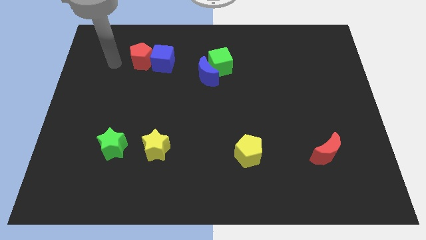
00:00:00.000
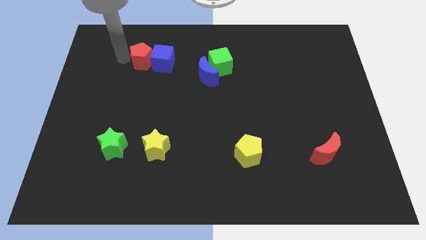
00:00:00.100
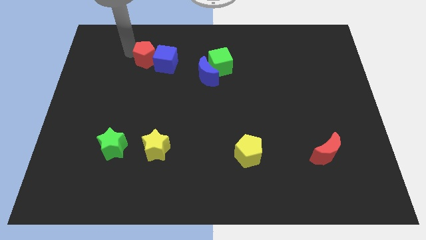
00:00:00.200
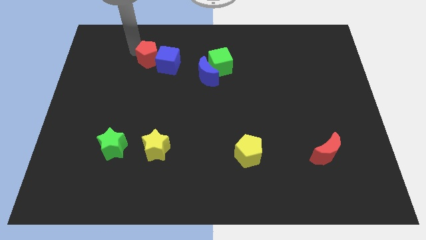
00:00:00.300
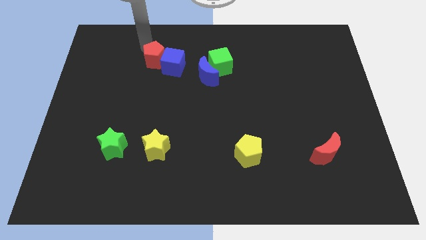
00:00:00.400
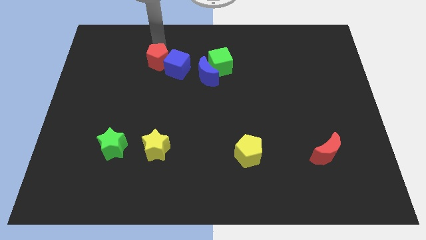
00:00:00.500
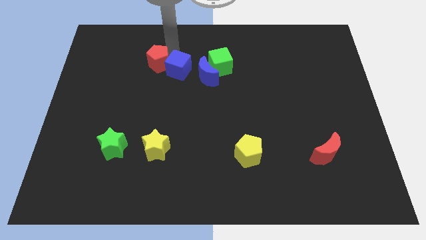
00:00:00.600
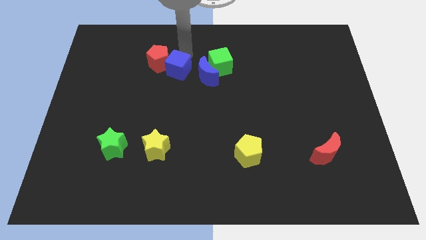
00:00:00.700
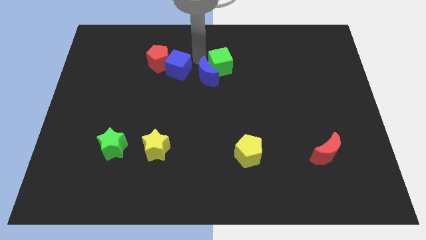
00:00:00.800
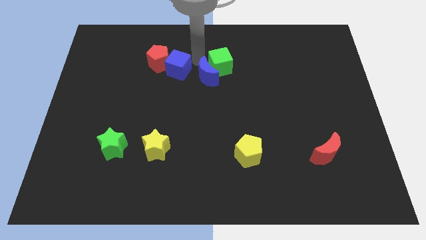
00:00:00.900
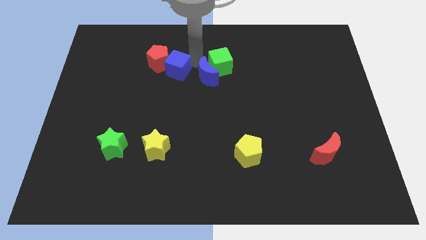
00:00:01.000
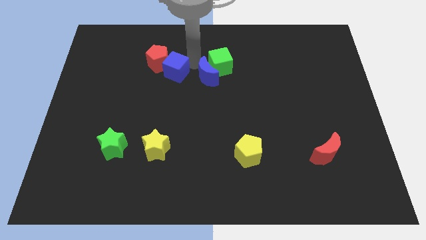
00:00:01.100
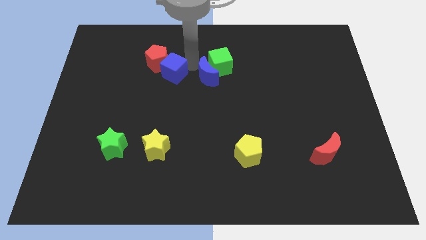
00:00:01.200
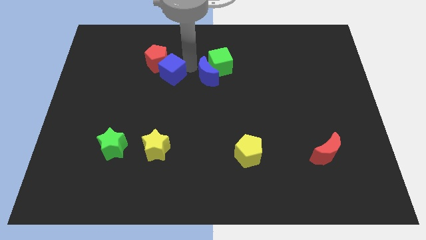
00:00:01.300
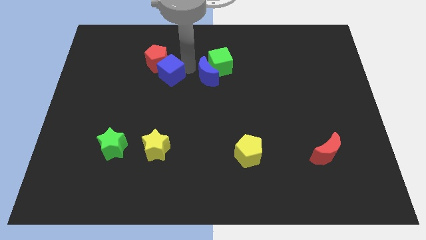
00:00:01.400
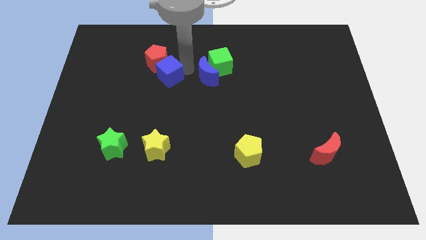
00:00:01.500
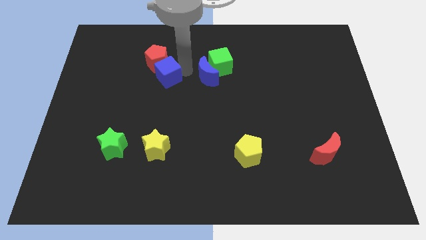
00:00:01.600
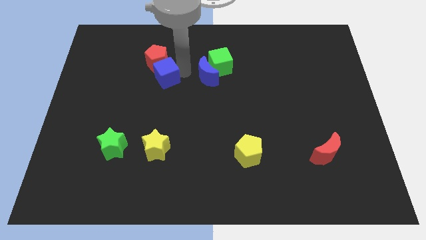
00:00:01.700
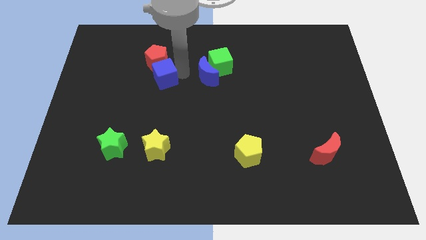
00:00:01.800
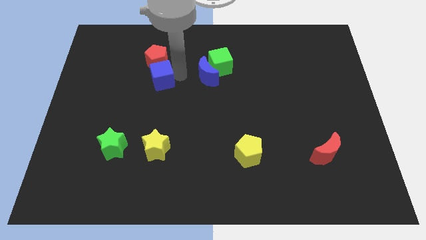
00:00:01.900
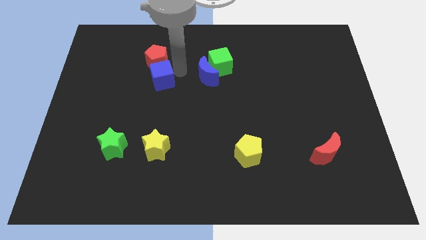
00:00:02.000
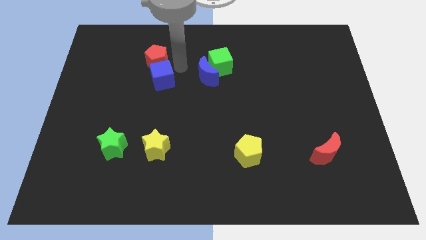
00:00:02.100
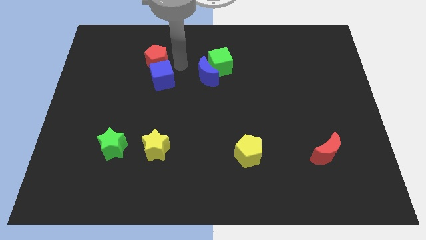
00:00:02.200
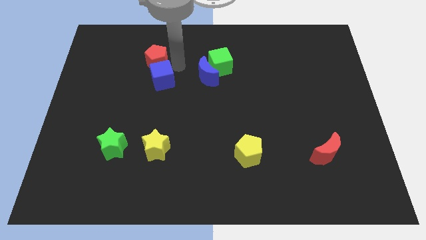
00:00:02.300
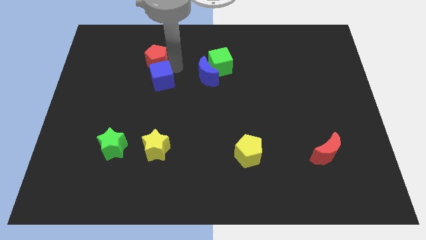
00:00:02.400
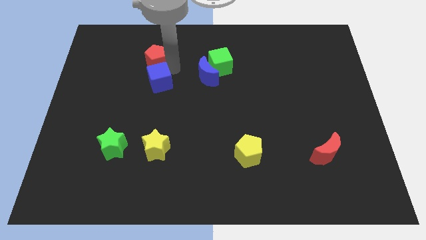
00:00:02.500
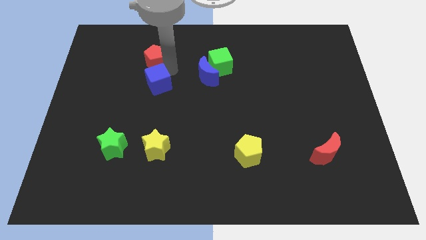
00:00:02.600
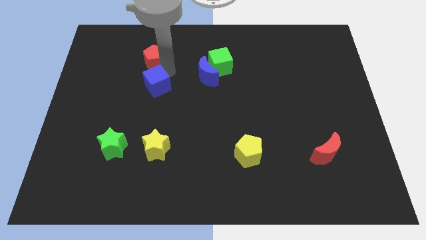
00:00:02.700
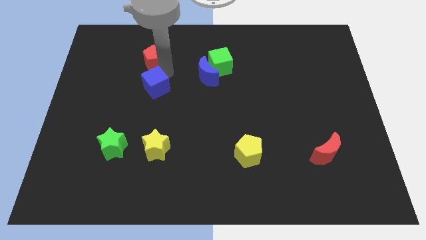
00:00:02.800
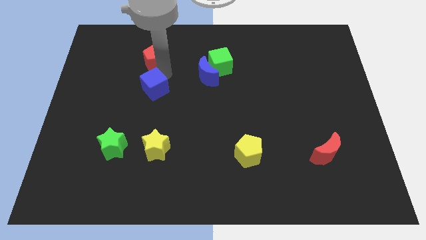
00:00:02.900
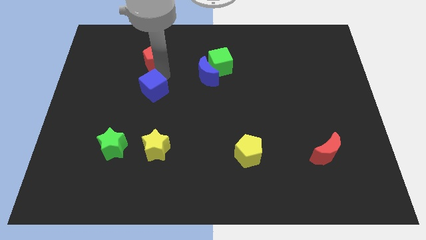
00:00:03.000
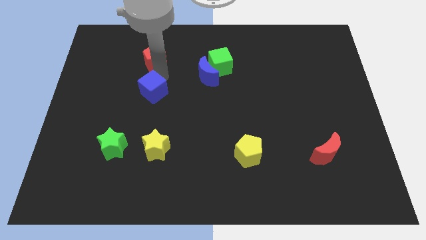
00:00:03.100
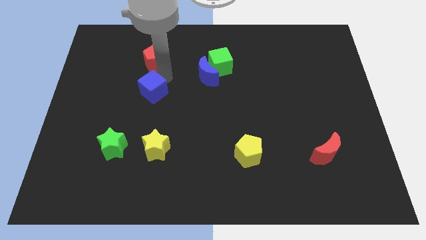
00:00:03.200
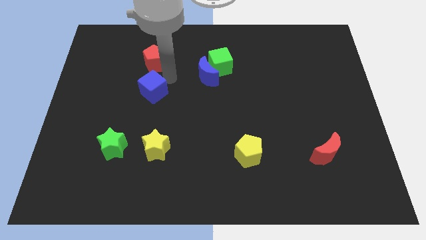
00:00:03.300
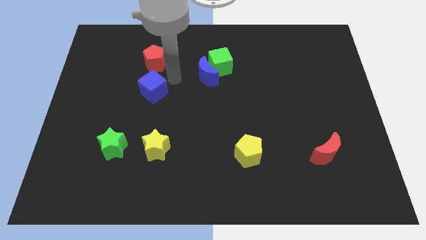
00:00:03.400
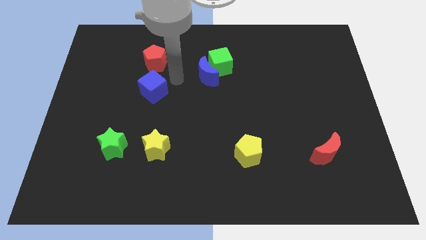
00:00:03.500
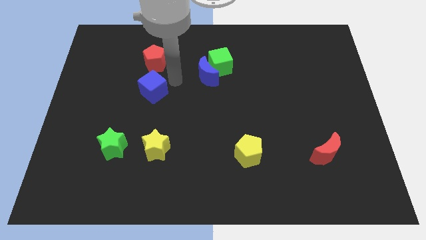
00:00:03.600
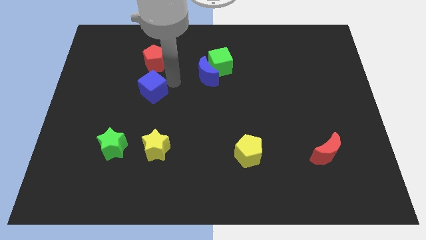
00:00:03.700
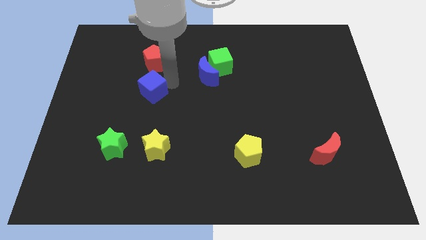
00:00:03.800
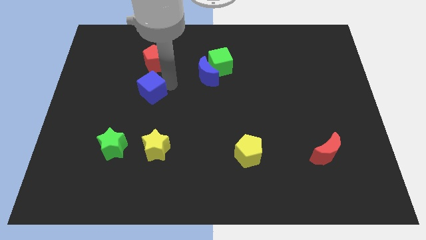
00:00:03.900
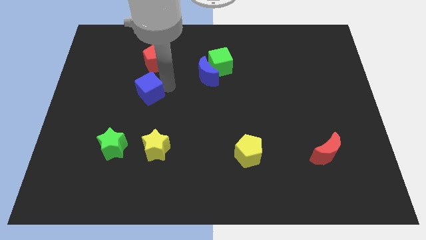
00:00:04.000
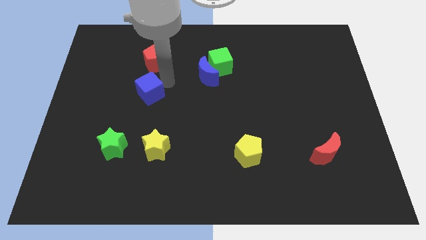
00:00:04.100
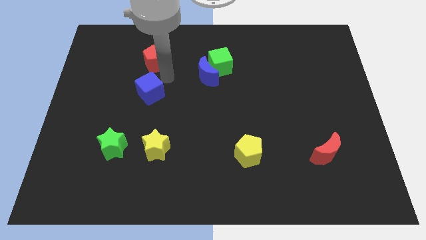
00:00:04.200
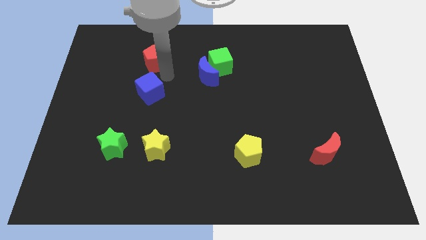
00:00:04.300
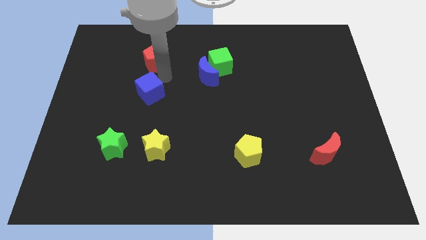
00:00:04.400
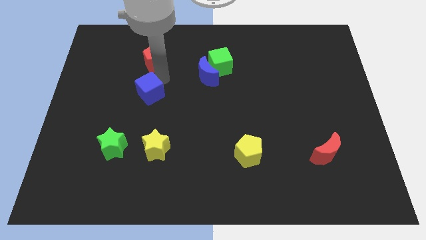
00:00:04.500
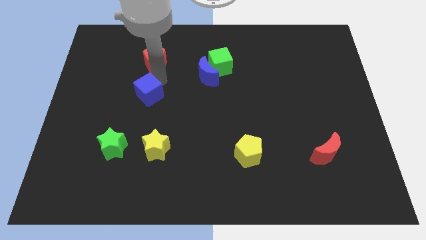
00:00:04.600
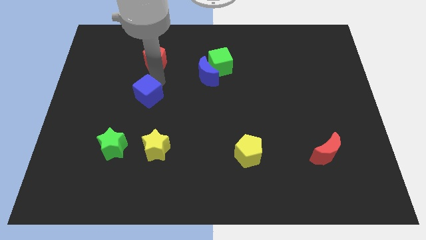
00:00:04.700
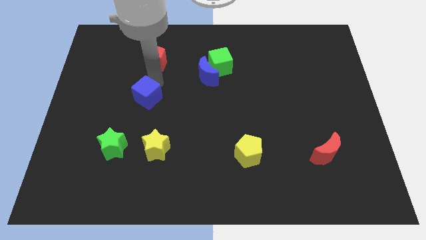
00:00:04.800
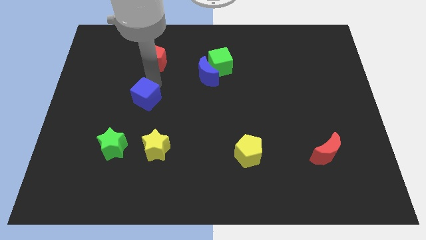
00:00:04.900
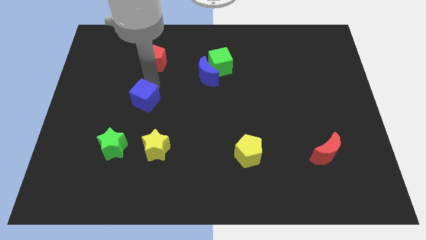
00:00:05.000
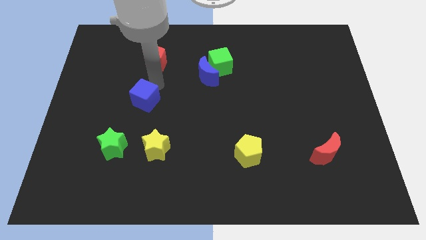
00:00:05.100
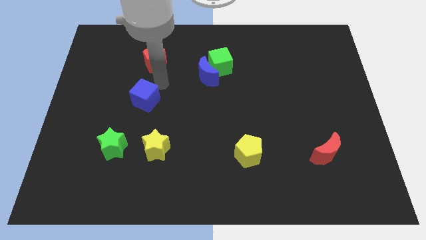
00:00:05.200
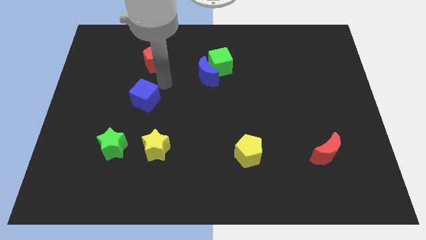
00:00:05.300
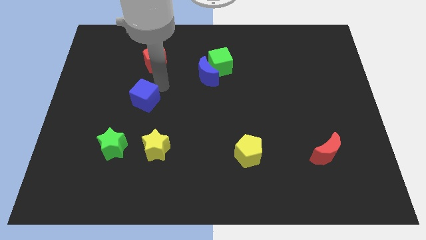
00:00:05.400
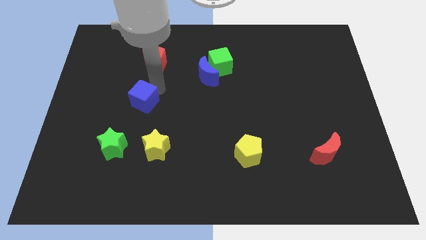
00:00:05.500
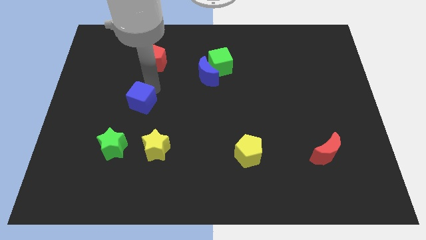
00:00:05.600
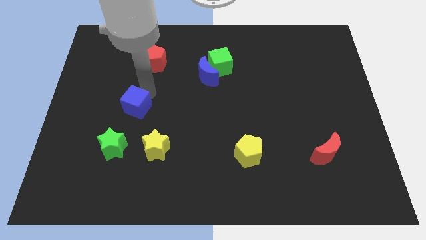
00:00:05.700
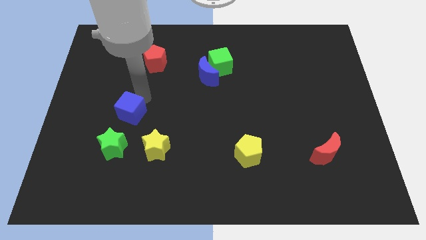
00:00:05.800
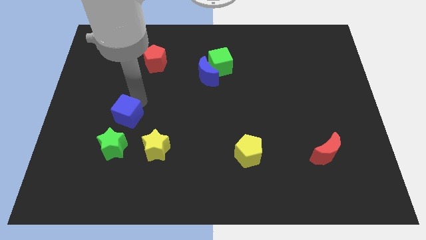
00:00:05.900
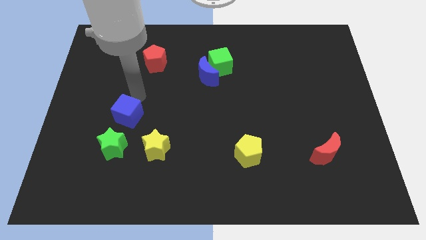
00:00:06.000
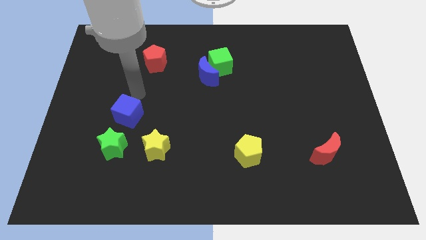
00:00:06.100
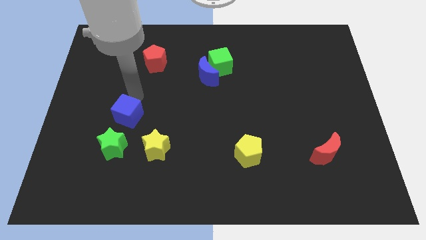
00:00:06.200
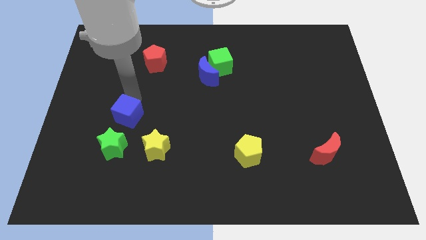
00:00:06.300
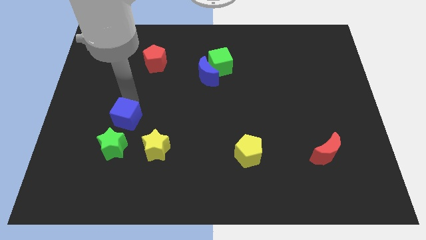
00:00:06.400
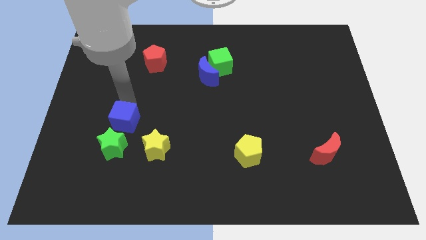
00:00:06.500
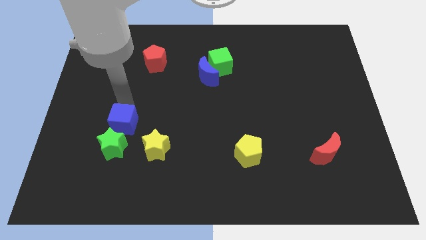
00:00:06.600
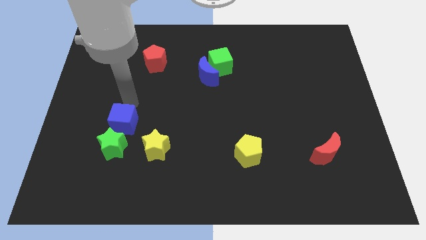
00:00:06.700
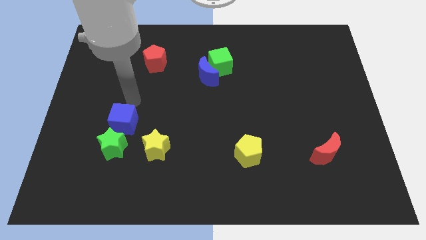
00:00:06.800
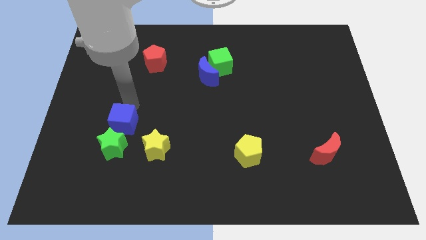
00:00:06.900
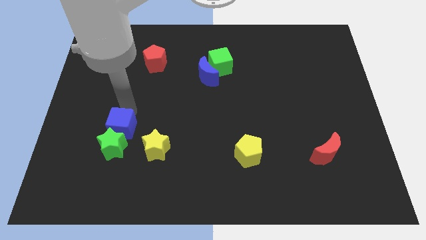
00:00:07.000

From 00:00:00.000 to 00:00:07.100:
move the blue cube towards the green star
